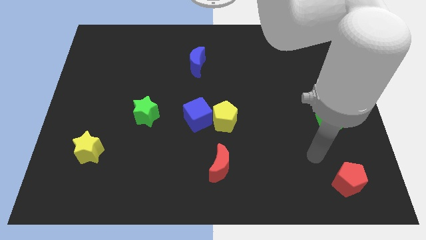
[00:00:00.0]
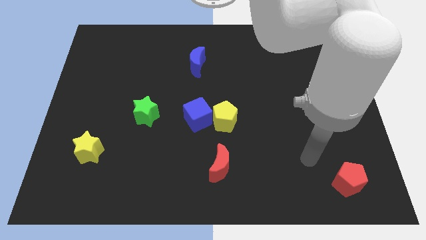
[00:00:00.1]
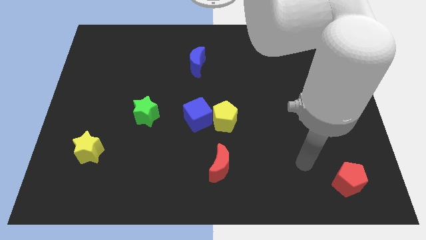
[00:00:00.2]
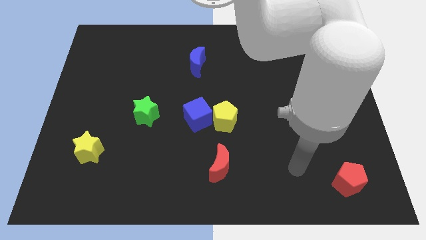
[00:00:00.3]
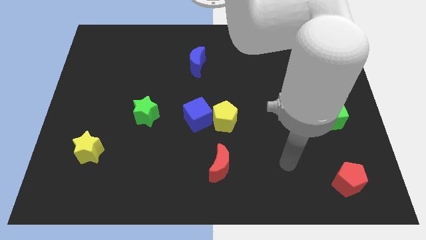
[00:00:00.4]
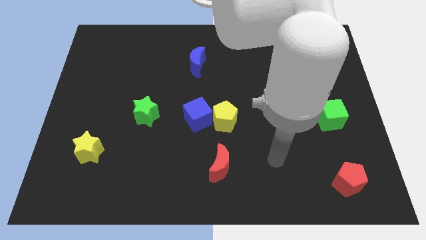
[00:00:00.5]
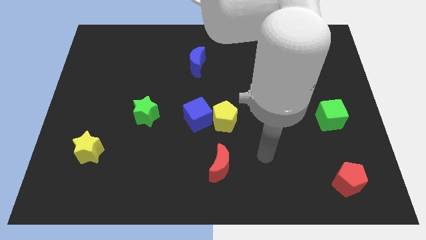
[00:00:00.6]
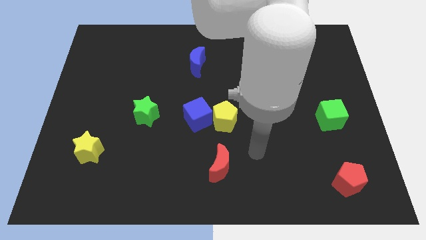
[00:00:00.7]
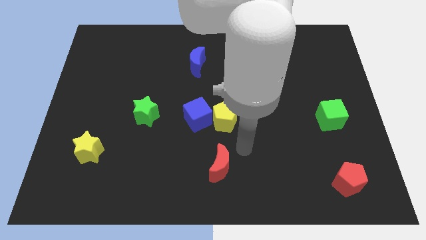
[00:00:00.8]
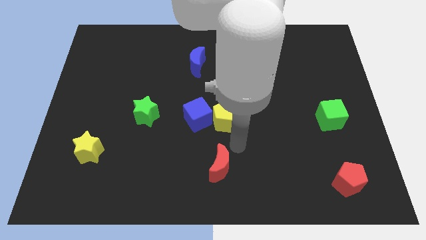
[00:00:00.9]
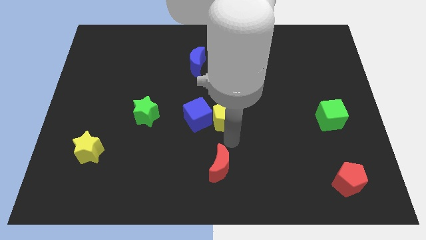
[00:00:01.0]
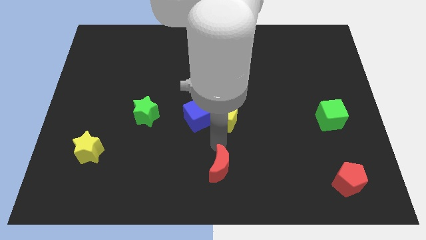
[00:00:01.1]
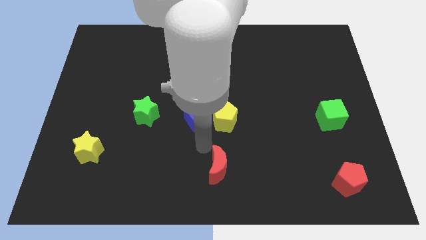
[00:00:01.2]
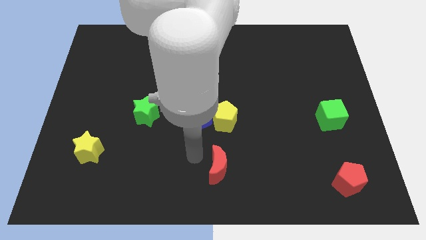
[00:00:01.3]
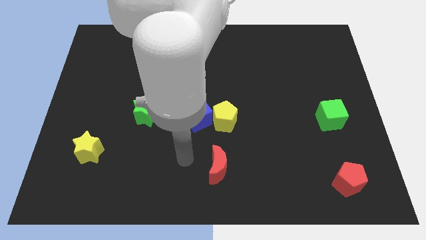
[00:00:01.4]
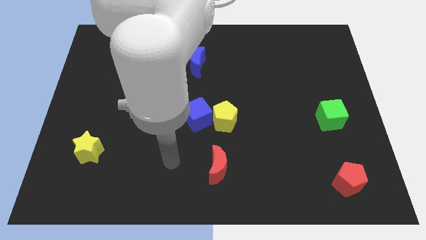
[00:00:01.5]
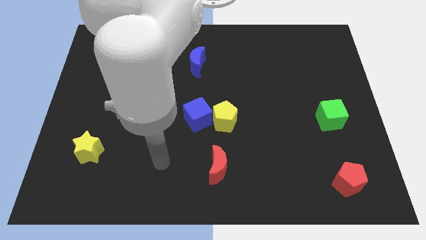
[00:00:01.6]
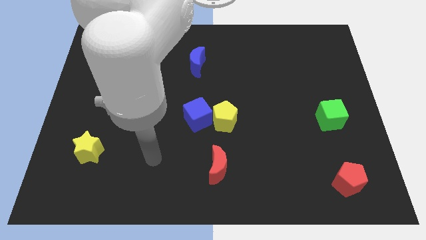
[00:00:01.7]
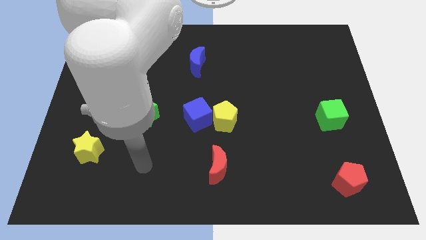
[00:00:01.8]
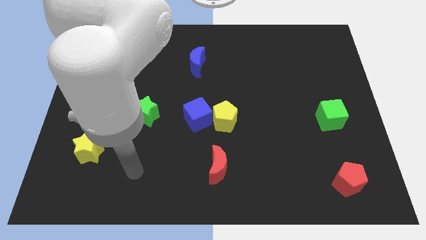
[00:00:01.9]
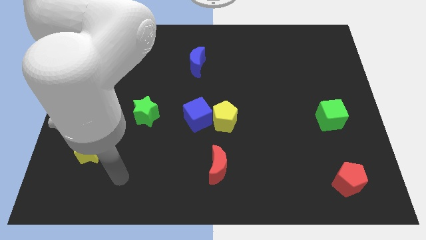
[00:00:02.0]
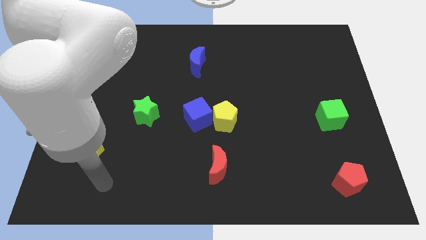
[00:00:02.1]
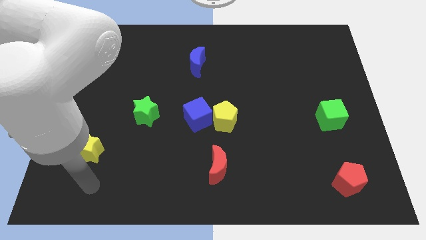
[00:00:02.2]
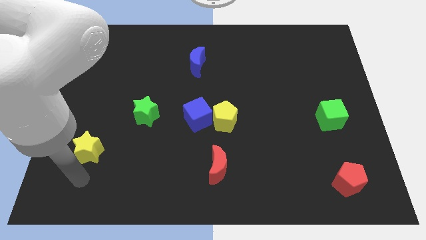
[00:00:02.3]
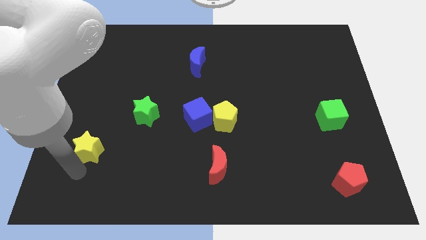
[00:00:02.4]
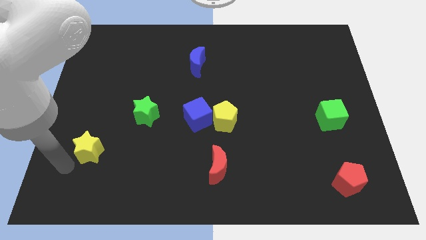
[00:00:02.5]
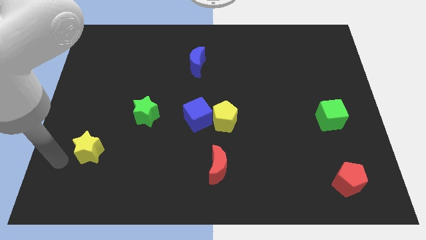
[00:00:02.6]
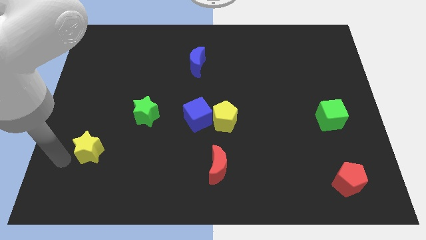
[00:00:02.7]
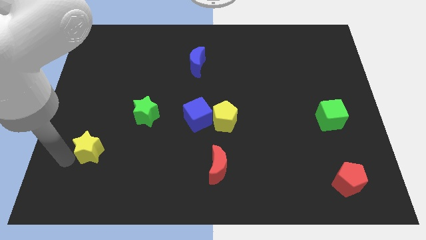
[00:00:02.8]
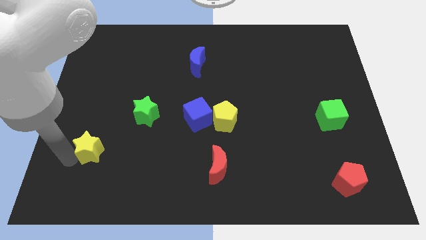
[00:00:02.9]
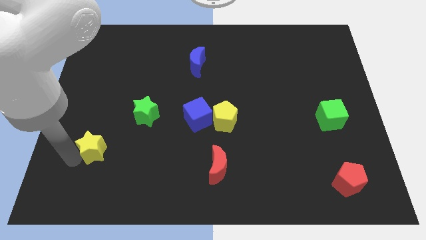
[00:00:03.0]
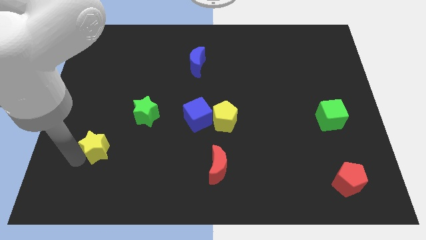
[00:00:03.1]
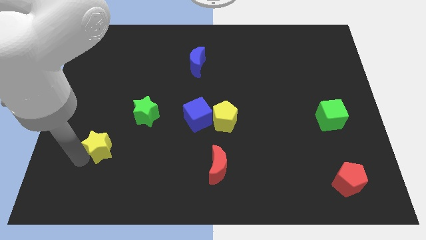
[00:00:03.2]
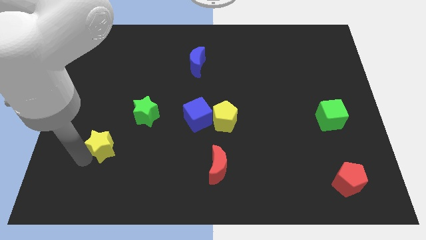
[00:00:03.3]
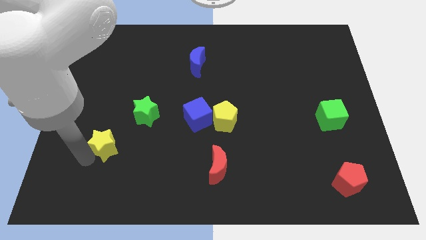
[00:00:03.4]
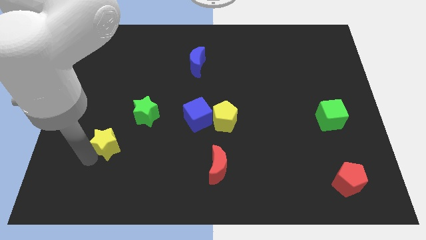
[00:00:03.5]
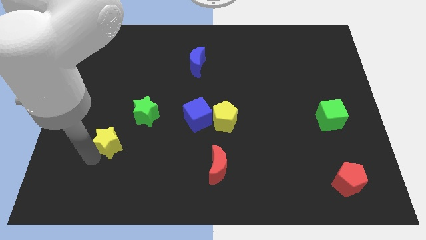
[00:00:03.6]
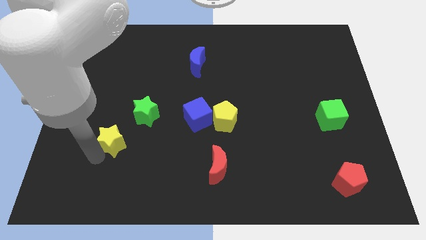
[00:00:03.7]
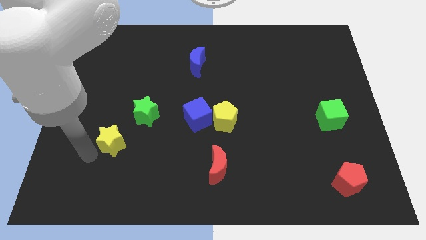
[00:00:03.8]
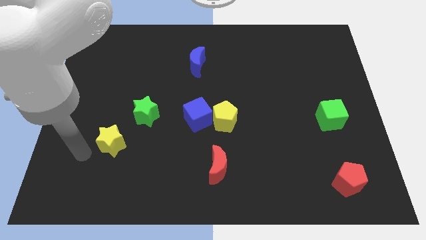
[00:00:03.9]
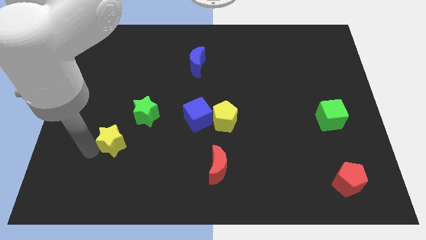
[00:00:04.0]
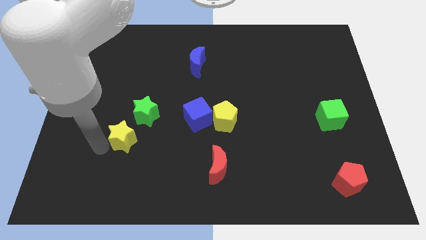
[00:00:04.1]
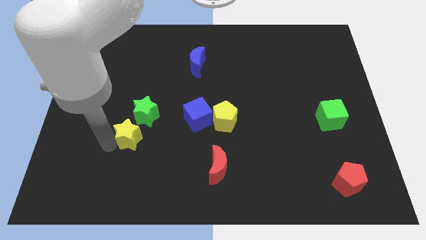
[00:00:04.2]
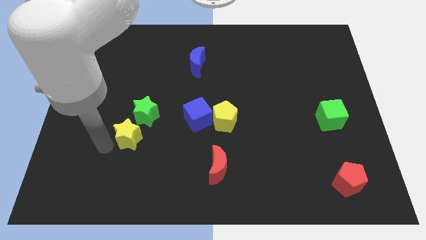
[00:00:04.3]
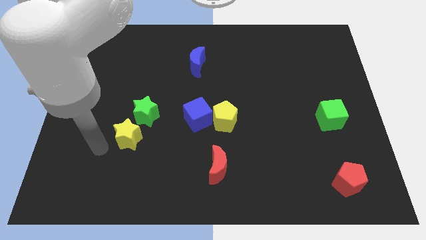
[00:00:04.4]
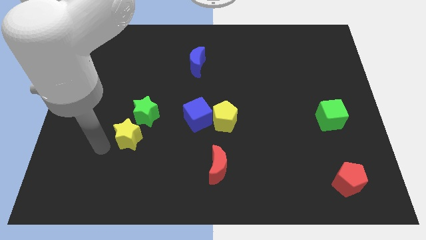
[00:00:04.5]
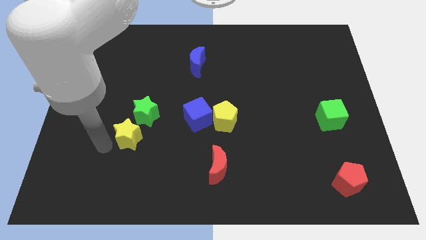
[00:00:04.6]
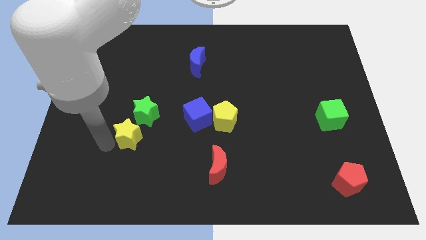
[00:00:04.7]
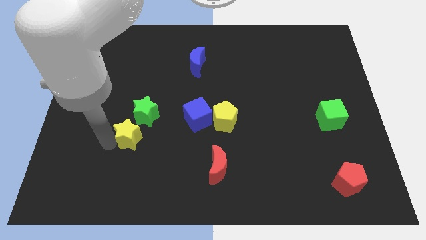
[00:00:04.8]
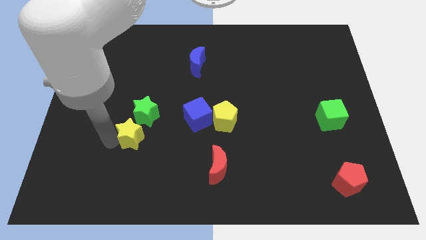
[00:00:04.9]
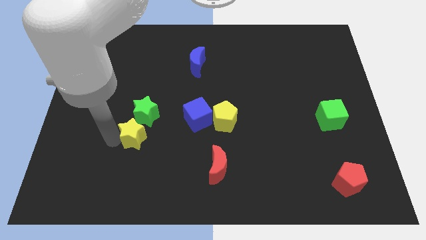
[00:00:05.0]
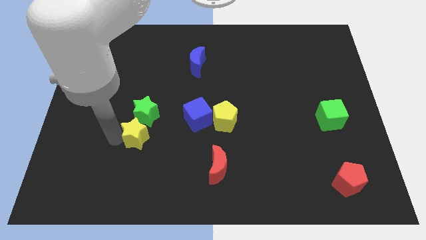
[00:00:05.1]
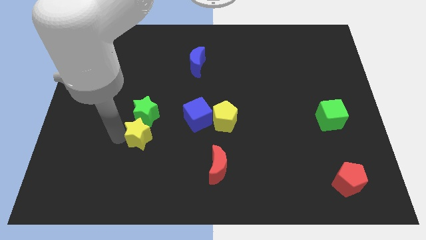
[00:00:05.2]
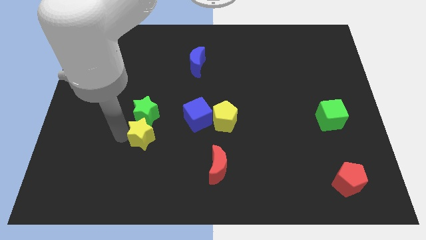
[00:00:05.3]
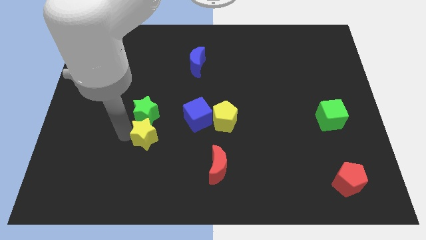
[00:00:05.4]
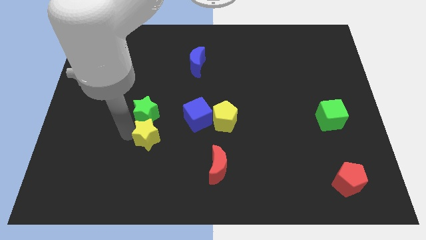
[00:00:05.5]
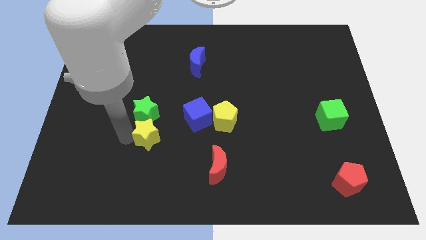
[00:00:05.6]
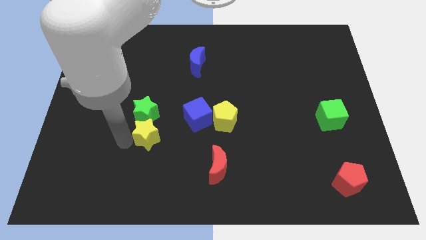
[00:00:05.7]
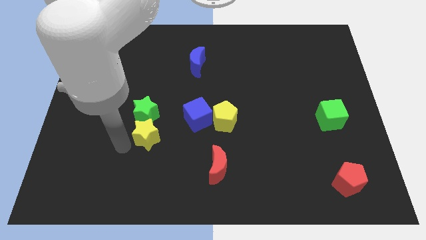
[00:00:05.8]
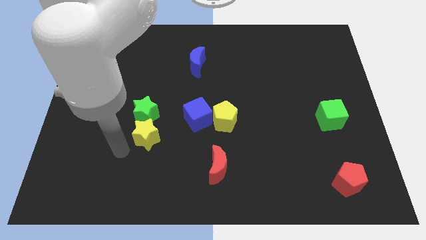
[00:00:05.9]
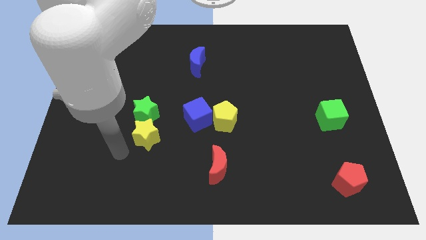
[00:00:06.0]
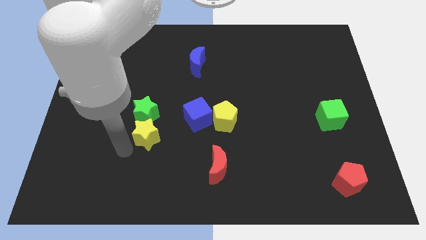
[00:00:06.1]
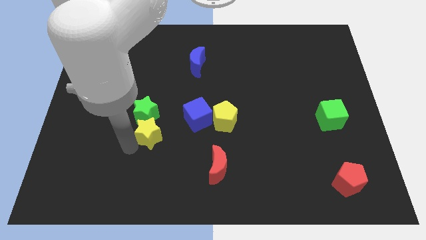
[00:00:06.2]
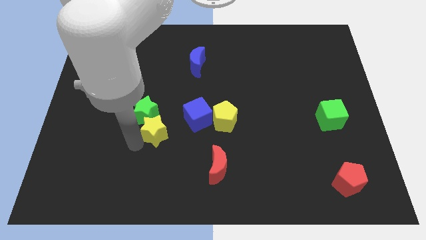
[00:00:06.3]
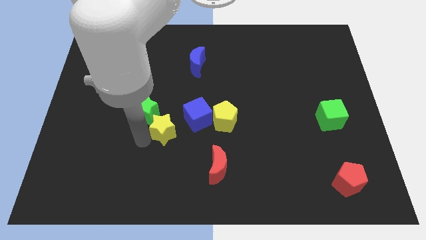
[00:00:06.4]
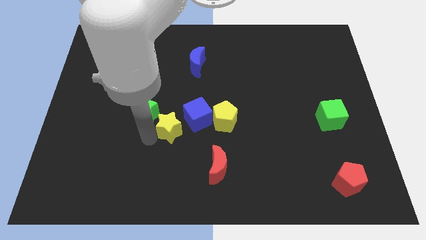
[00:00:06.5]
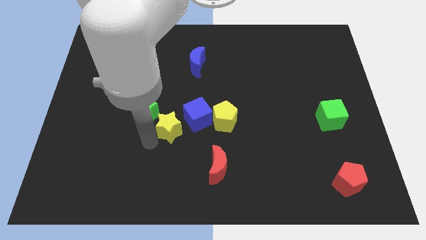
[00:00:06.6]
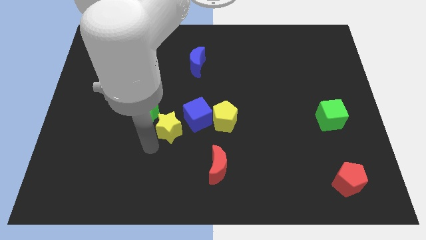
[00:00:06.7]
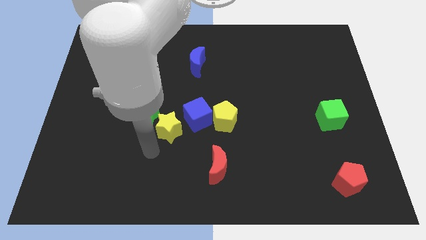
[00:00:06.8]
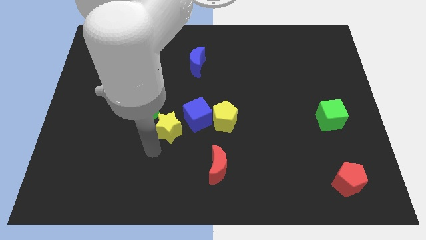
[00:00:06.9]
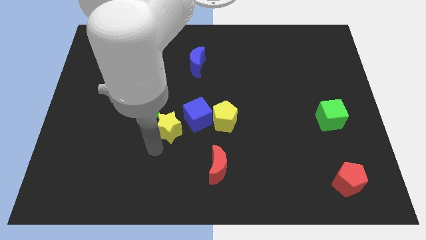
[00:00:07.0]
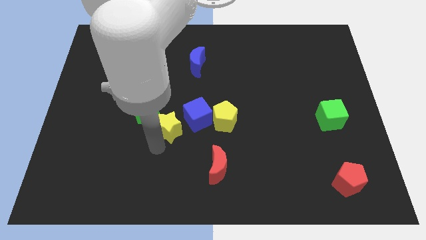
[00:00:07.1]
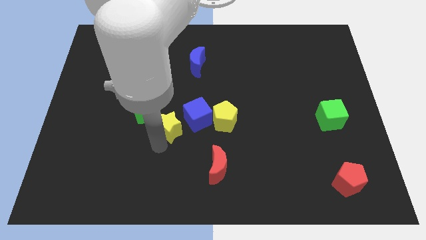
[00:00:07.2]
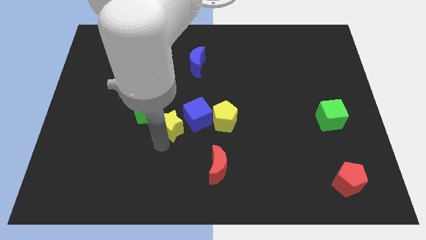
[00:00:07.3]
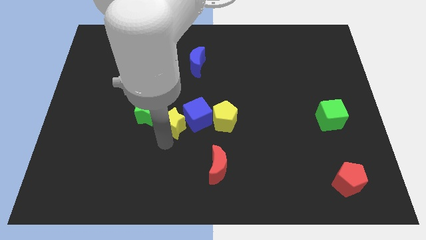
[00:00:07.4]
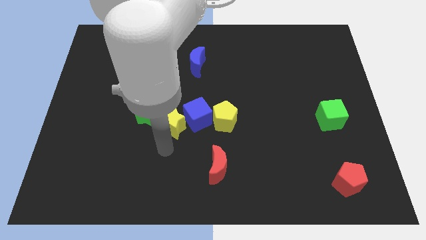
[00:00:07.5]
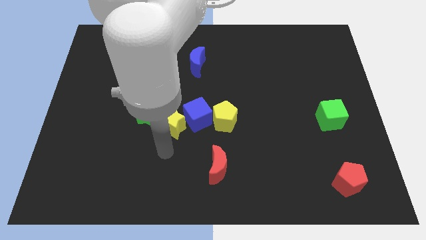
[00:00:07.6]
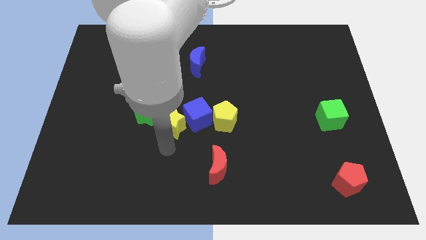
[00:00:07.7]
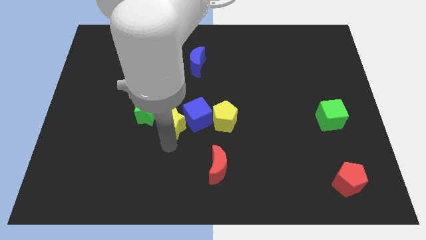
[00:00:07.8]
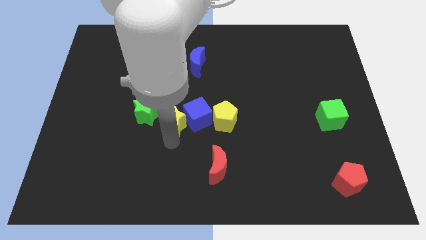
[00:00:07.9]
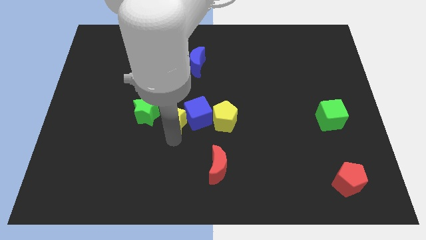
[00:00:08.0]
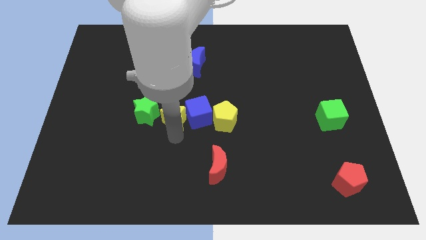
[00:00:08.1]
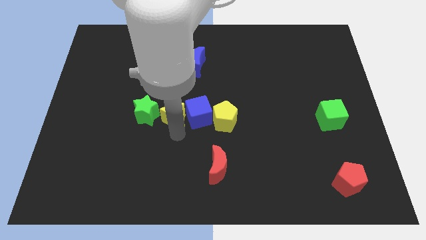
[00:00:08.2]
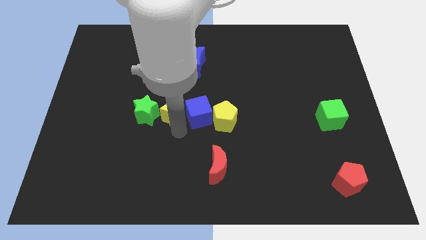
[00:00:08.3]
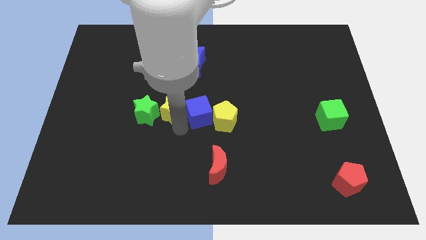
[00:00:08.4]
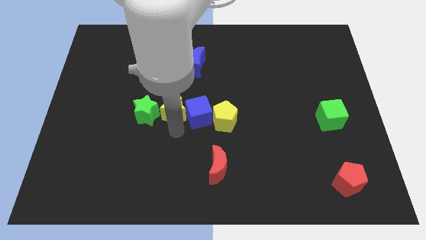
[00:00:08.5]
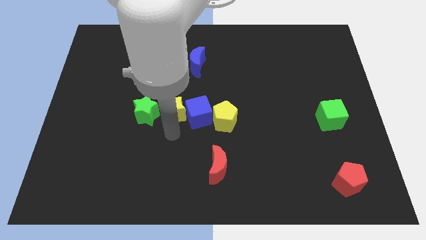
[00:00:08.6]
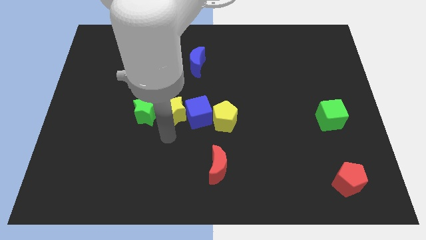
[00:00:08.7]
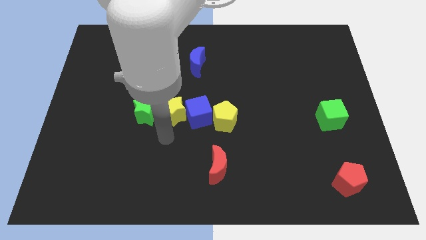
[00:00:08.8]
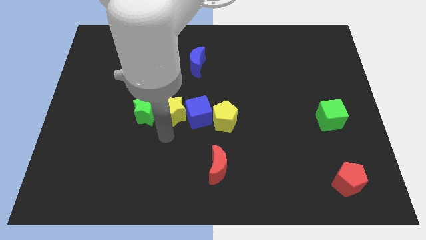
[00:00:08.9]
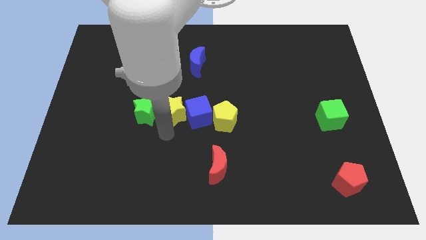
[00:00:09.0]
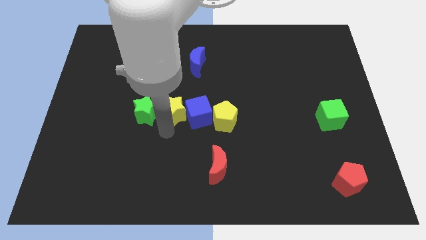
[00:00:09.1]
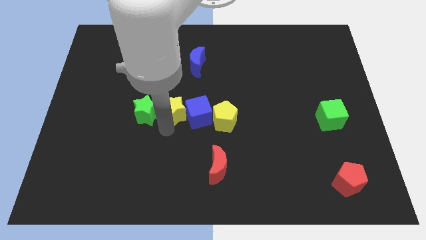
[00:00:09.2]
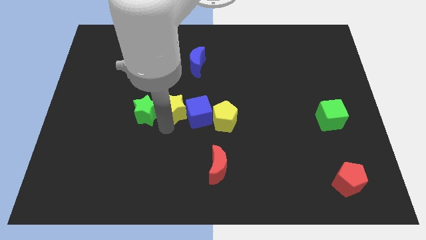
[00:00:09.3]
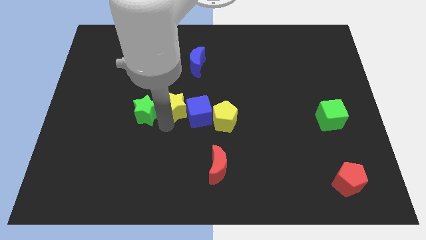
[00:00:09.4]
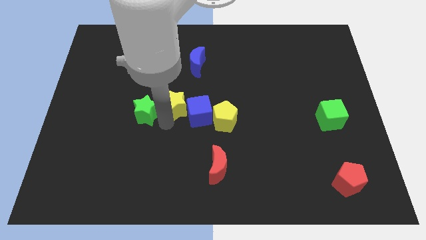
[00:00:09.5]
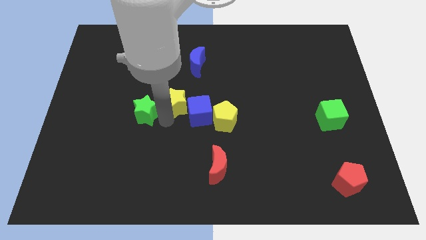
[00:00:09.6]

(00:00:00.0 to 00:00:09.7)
slide the yellow star to the bottom of the blue moon
